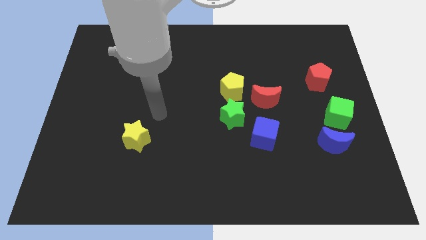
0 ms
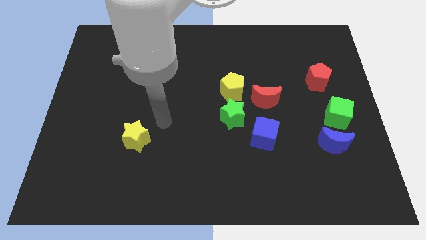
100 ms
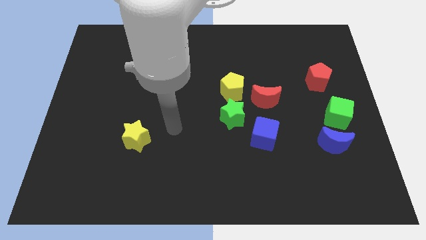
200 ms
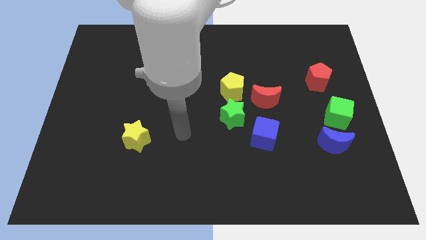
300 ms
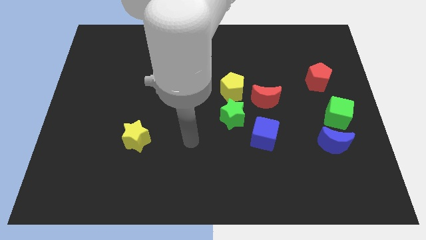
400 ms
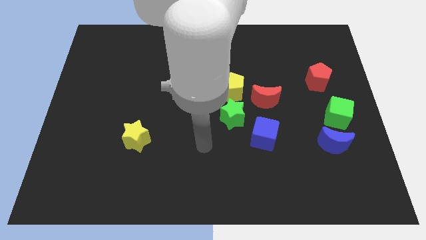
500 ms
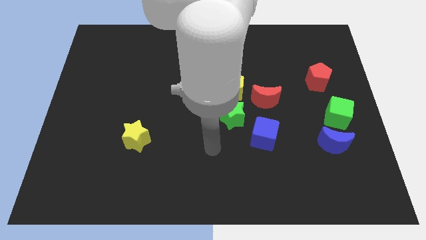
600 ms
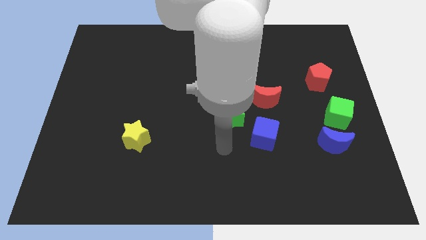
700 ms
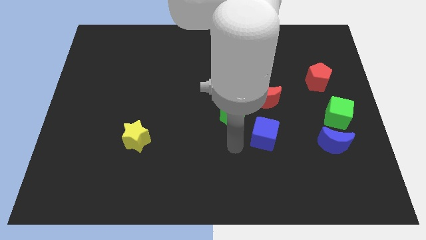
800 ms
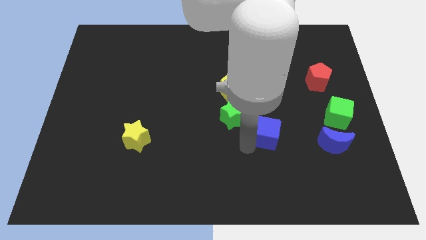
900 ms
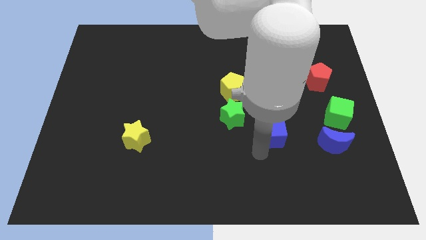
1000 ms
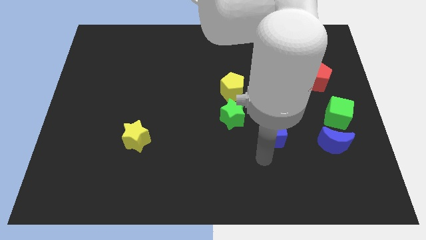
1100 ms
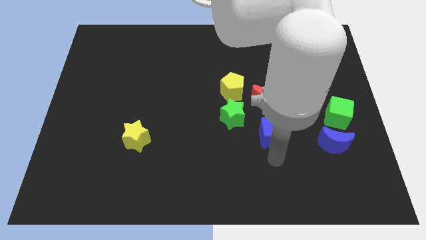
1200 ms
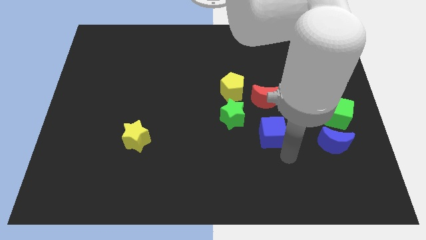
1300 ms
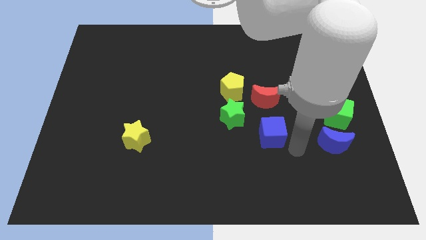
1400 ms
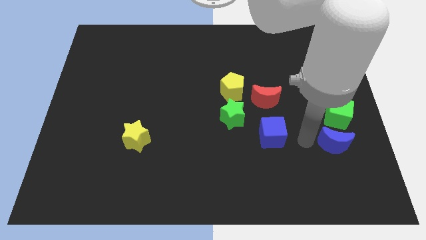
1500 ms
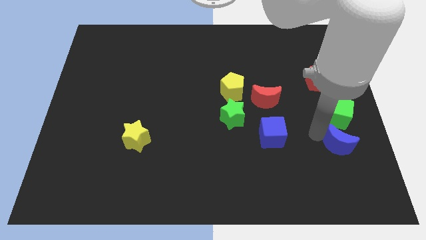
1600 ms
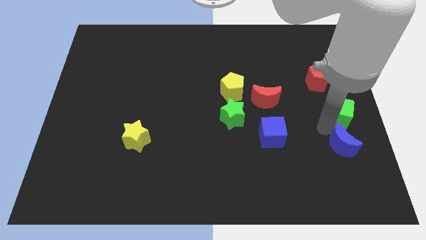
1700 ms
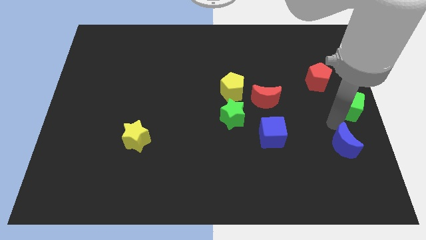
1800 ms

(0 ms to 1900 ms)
separate the blue moon from the green cube

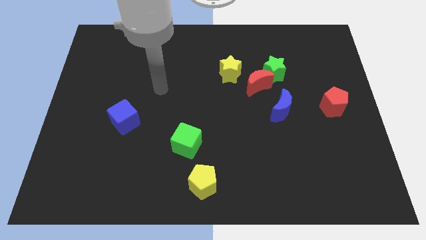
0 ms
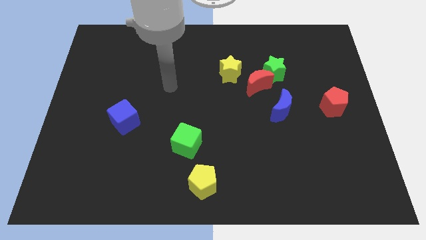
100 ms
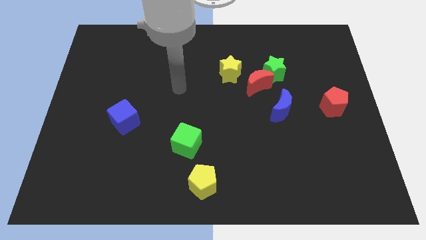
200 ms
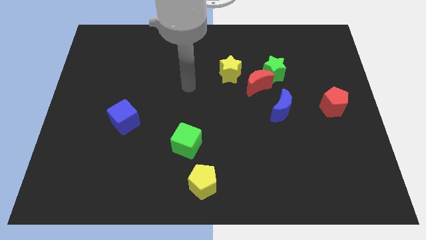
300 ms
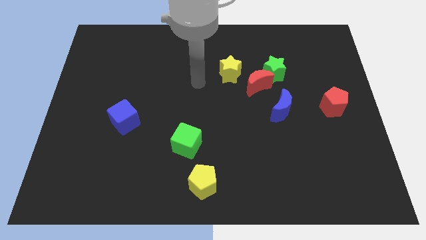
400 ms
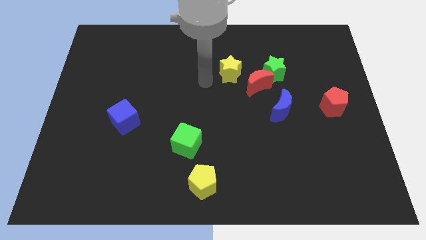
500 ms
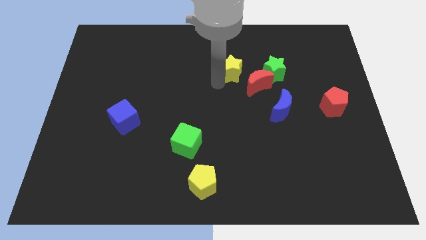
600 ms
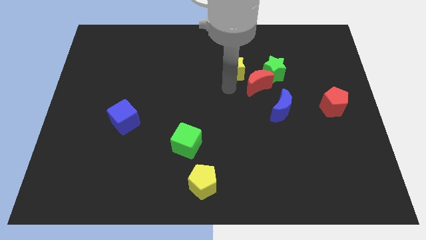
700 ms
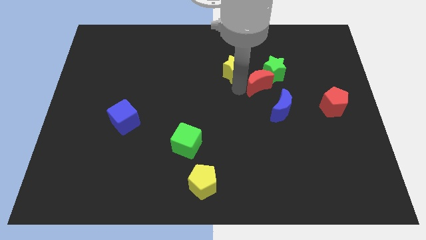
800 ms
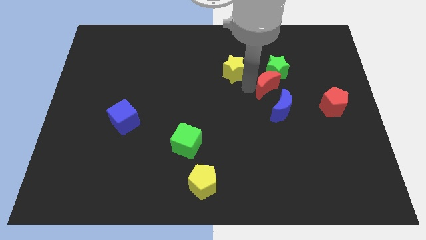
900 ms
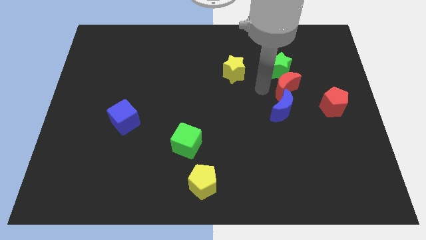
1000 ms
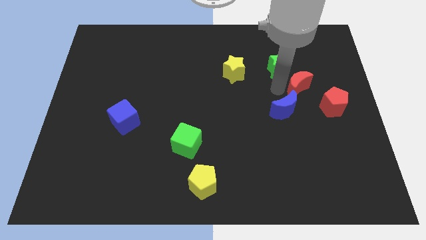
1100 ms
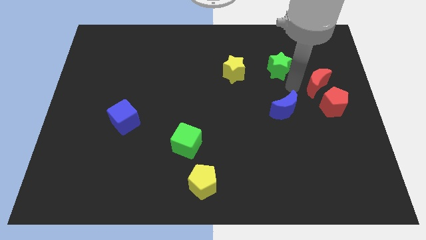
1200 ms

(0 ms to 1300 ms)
pull the green star apart from the red moon

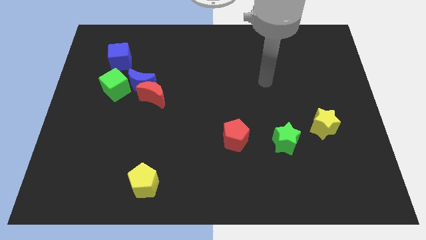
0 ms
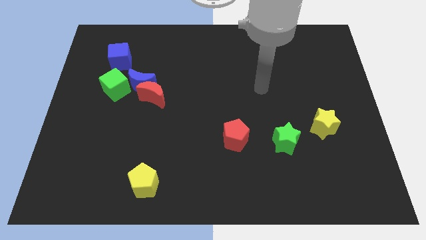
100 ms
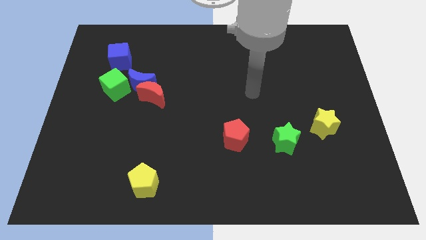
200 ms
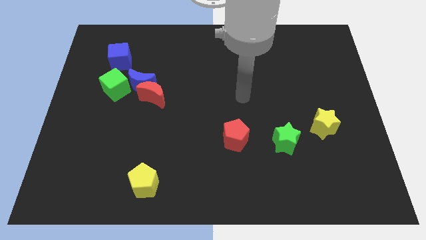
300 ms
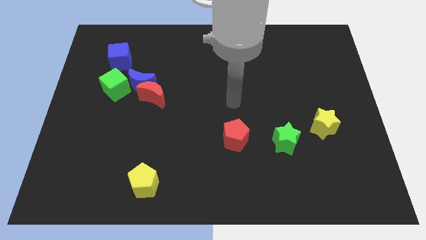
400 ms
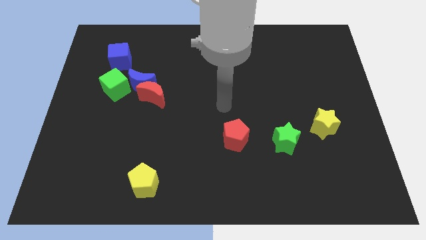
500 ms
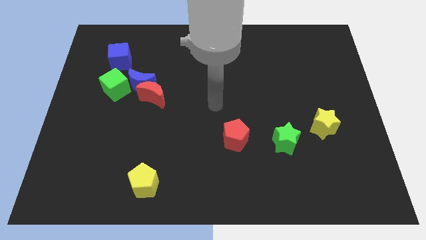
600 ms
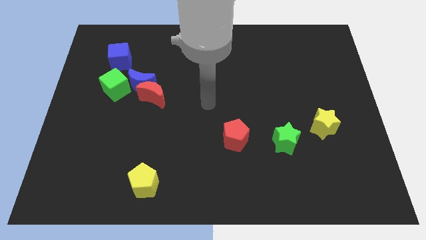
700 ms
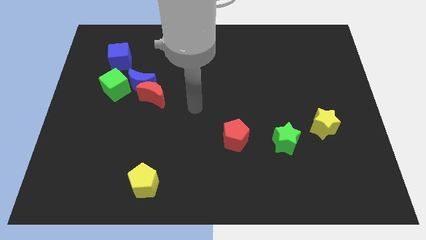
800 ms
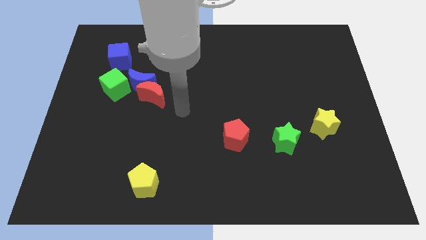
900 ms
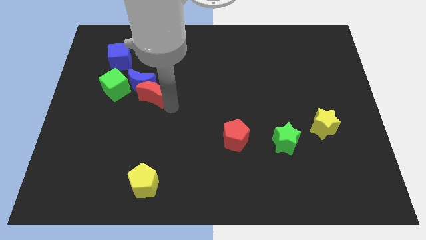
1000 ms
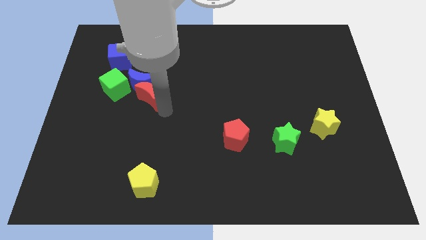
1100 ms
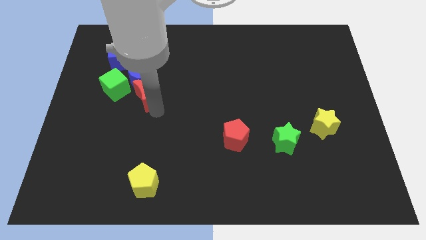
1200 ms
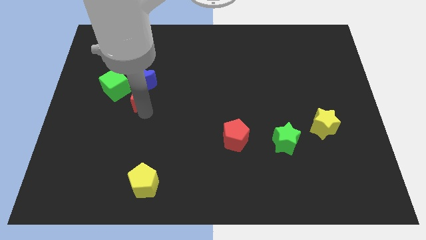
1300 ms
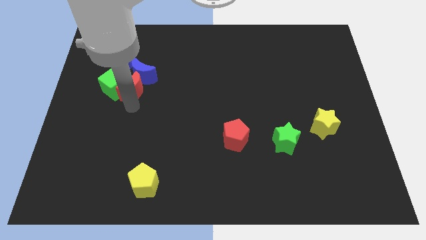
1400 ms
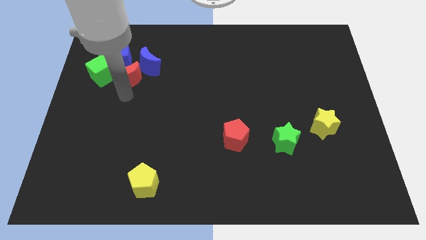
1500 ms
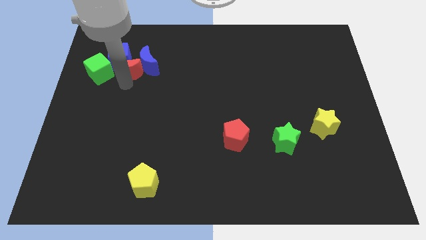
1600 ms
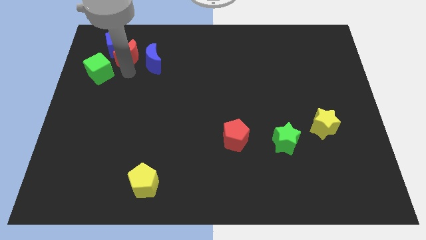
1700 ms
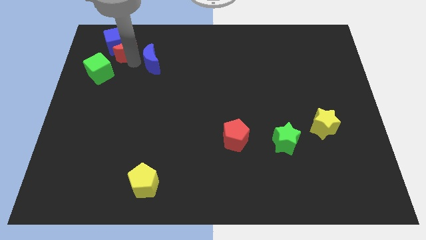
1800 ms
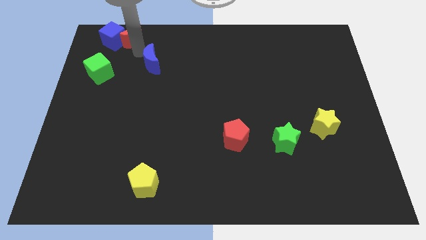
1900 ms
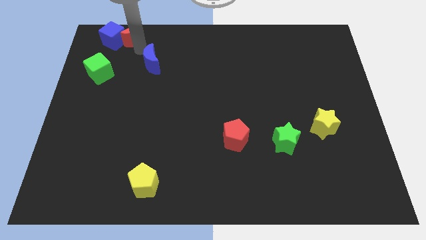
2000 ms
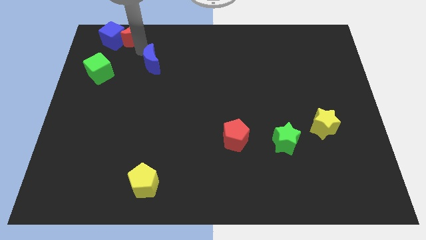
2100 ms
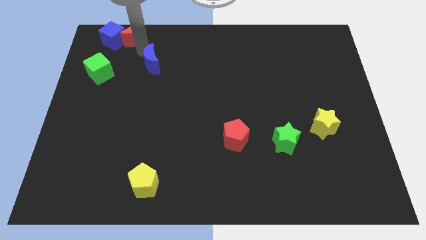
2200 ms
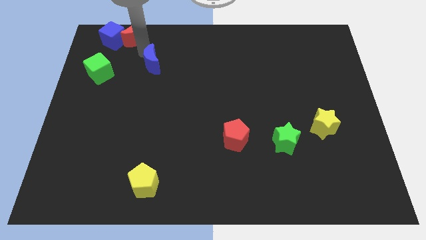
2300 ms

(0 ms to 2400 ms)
pull the blue moon apart from the red moon and green cube

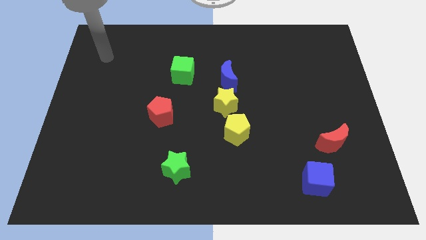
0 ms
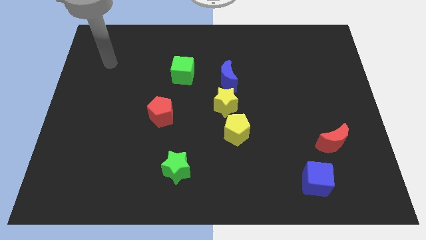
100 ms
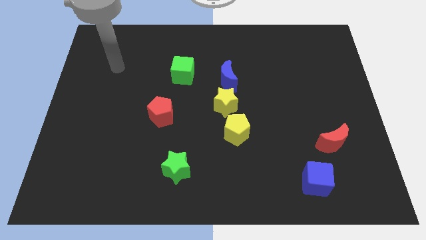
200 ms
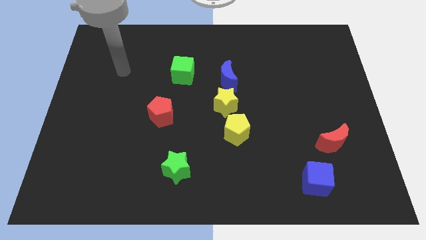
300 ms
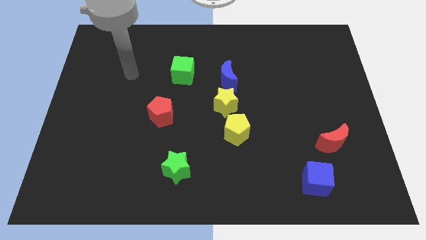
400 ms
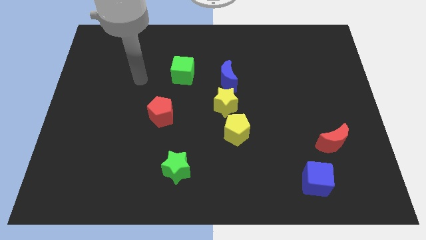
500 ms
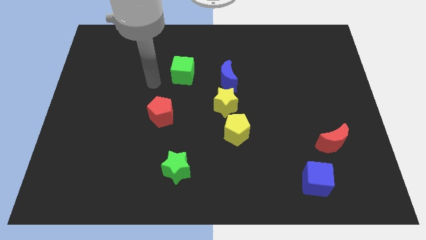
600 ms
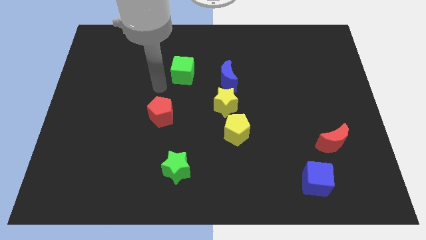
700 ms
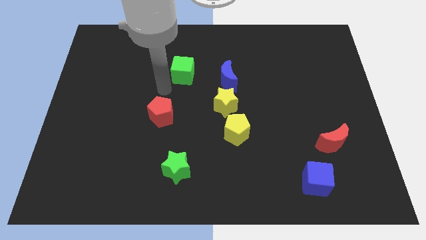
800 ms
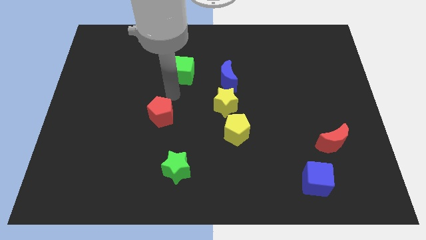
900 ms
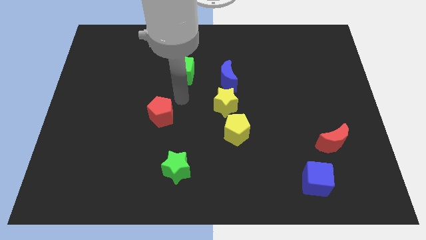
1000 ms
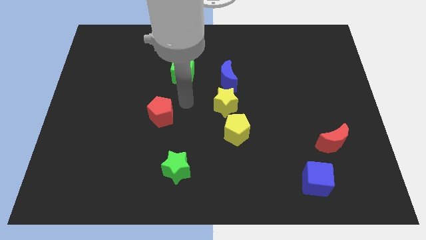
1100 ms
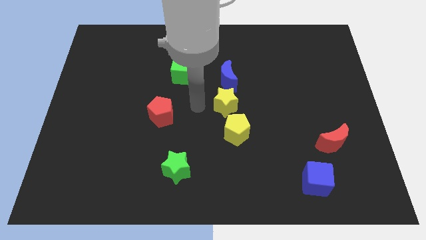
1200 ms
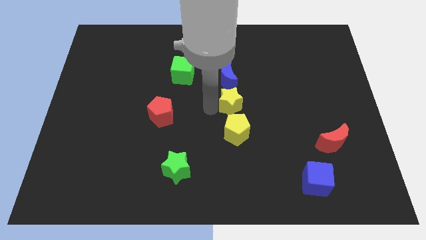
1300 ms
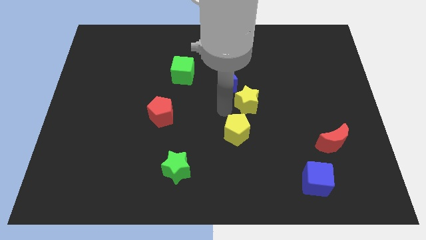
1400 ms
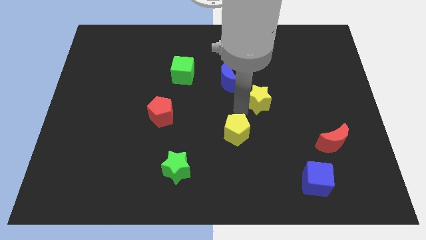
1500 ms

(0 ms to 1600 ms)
pull the yellow pentagon apart from the yellow star

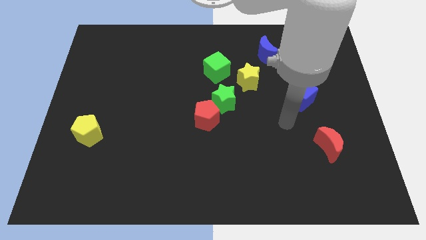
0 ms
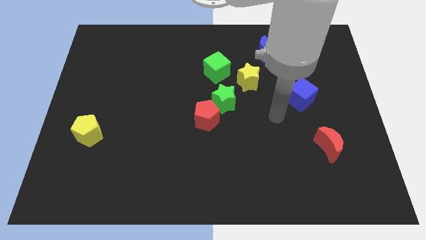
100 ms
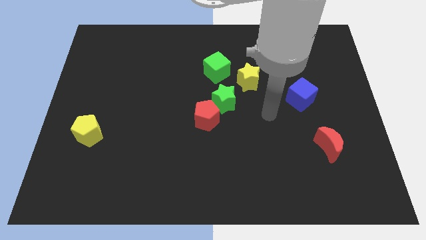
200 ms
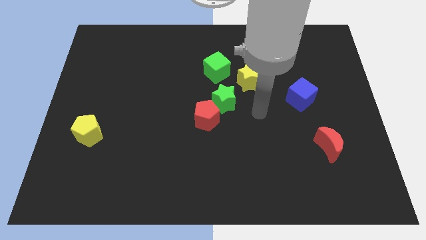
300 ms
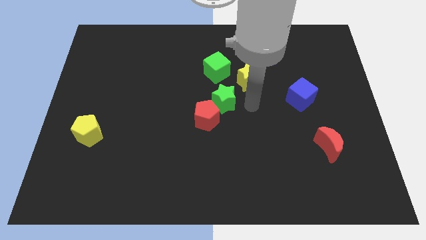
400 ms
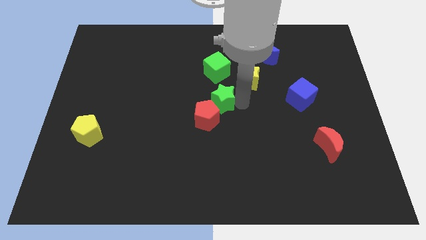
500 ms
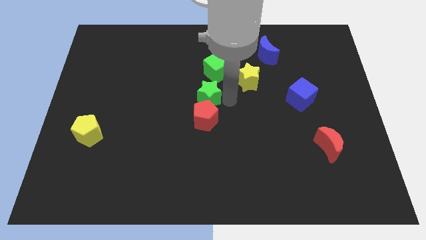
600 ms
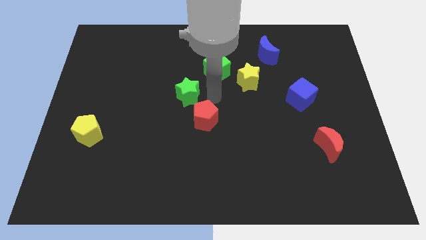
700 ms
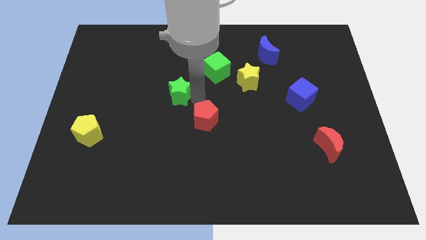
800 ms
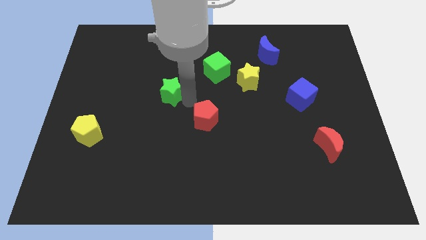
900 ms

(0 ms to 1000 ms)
separate the red pentagon from the green star

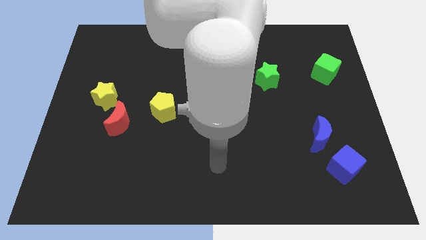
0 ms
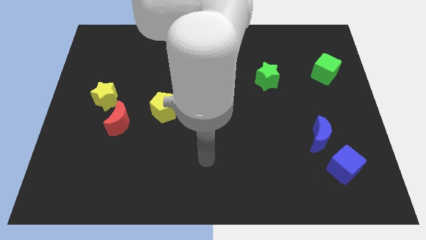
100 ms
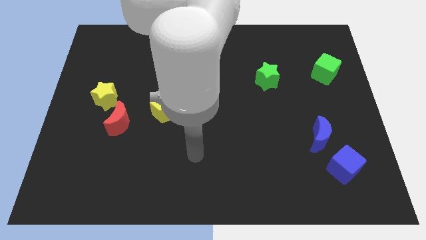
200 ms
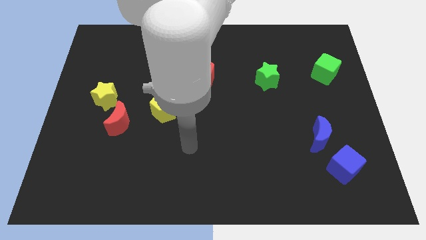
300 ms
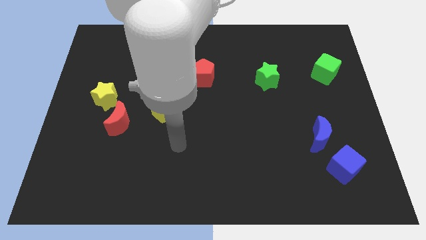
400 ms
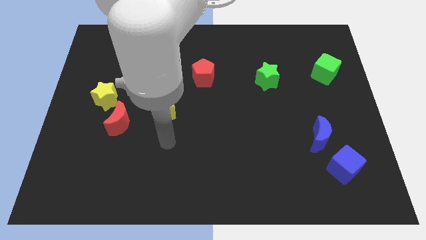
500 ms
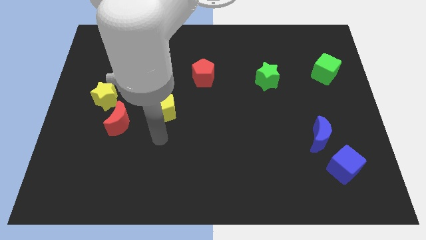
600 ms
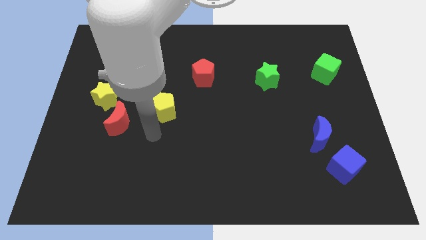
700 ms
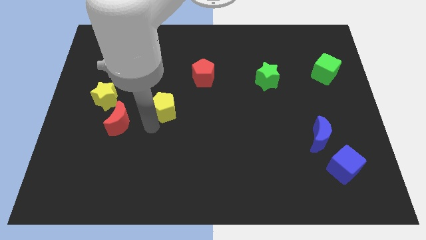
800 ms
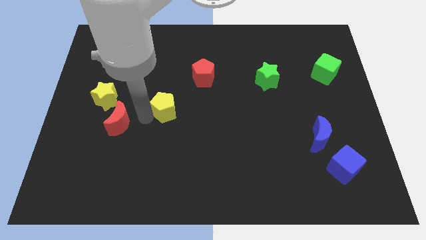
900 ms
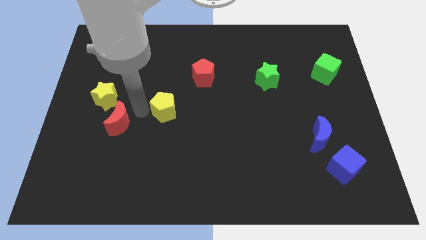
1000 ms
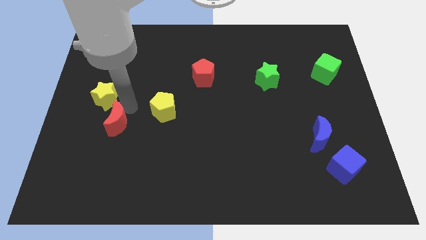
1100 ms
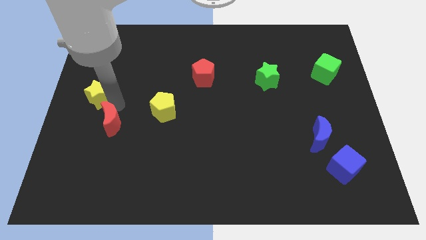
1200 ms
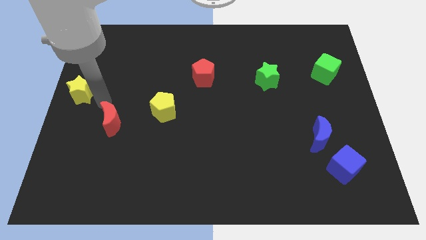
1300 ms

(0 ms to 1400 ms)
separate the red moon from the yellow star
